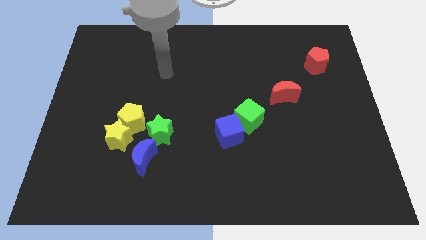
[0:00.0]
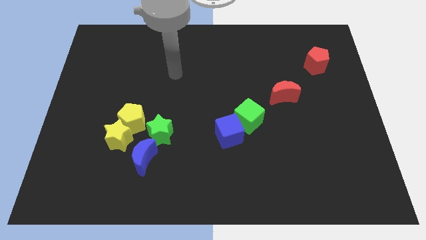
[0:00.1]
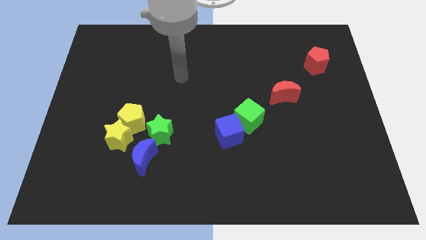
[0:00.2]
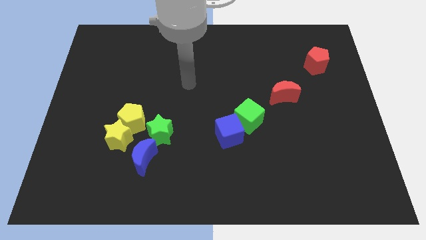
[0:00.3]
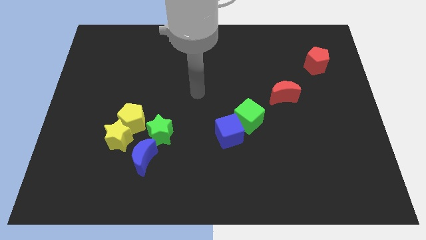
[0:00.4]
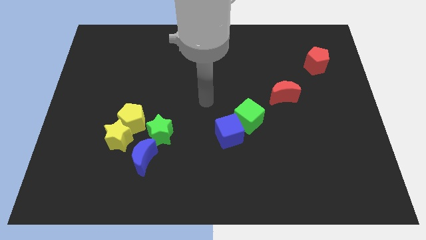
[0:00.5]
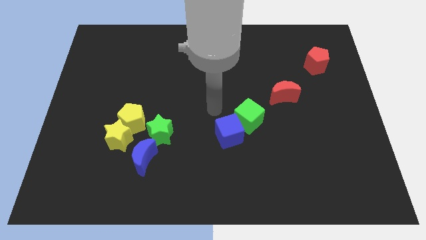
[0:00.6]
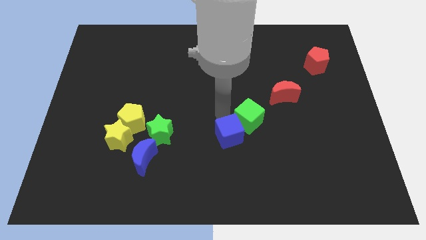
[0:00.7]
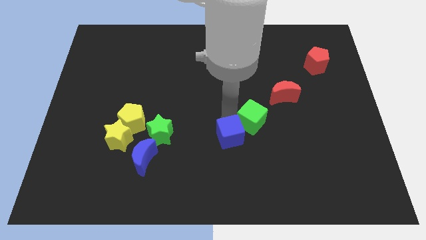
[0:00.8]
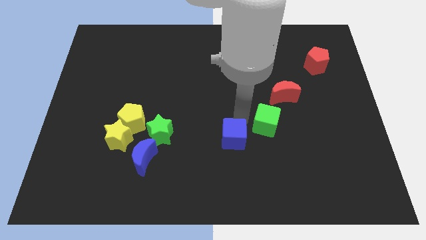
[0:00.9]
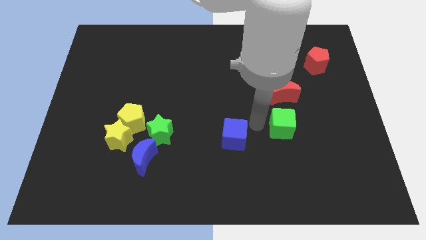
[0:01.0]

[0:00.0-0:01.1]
pull the blue cube apart from the green cube

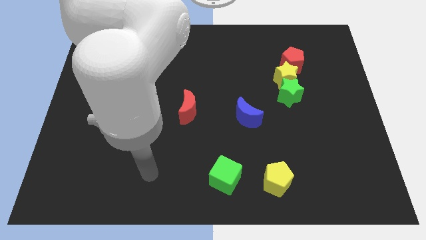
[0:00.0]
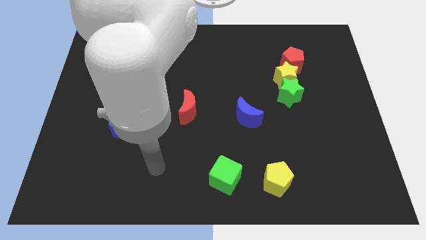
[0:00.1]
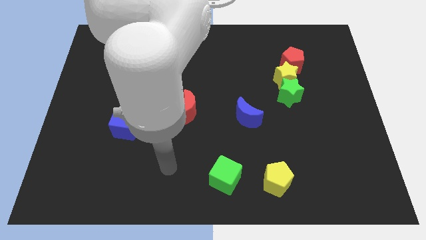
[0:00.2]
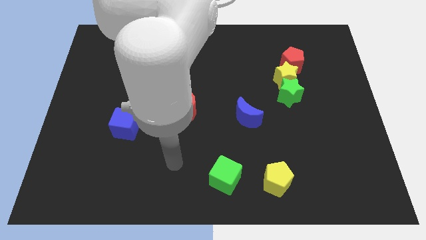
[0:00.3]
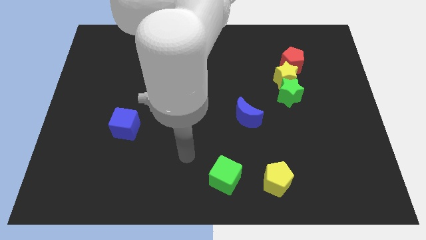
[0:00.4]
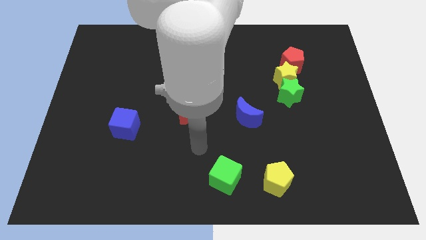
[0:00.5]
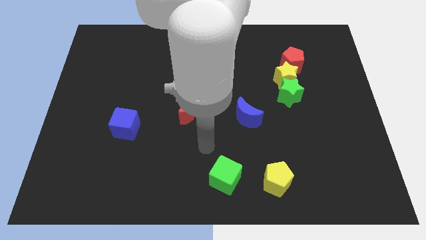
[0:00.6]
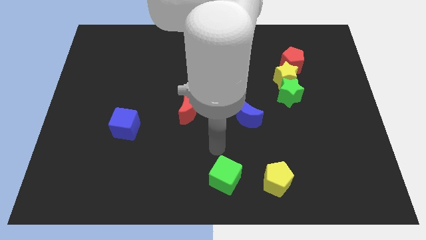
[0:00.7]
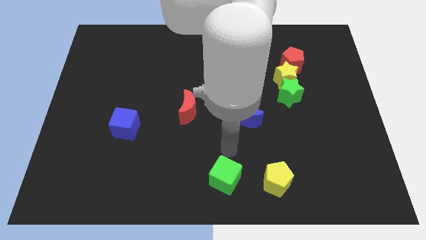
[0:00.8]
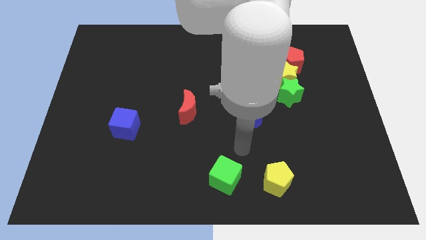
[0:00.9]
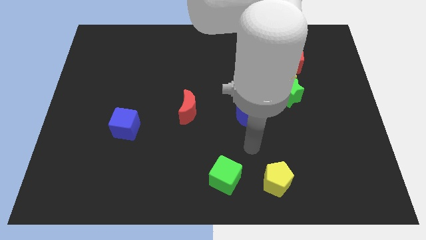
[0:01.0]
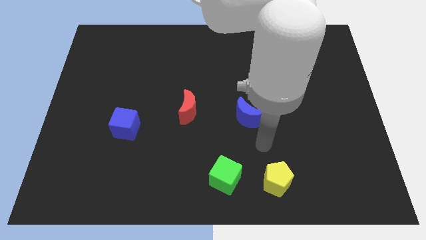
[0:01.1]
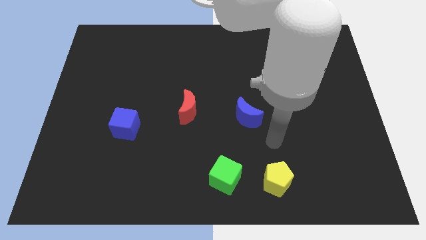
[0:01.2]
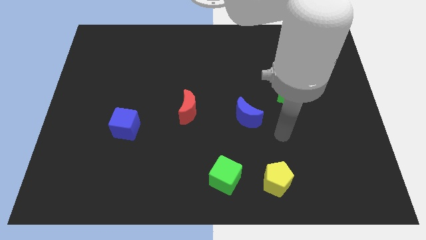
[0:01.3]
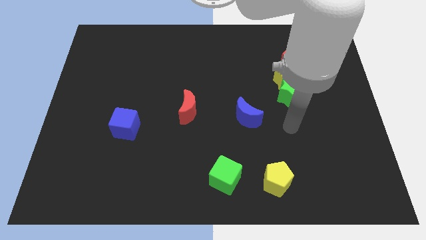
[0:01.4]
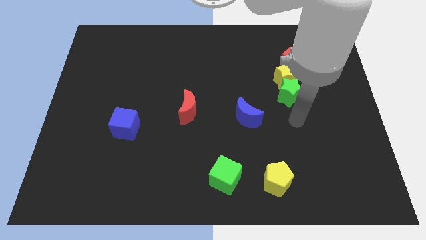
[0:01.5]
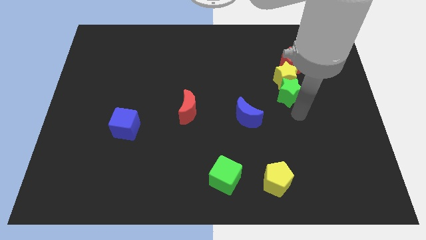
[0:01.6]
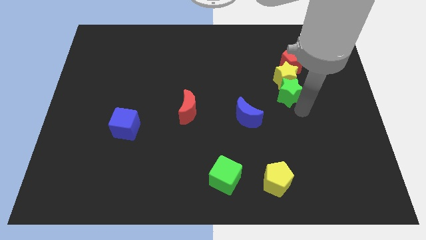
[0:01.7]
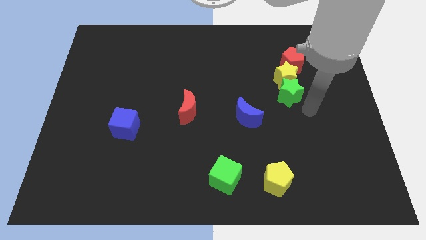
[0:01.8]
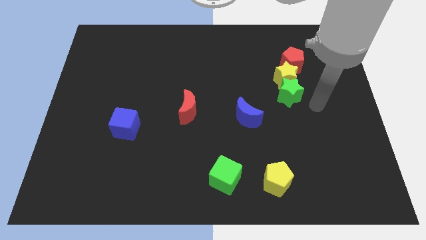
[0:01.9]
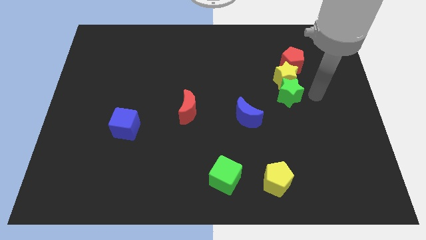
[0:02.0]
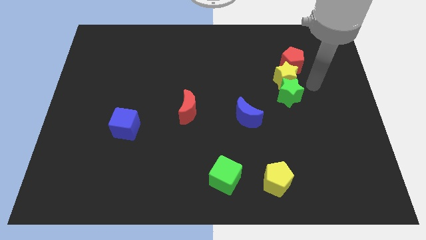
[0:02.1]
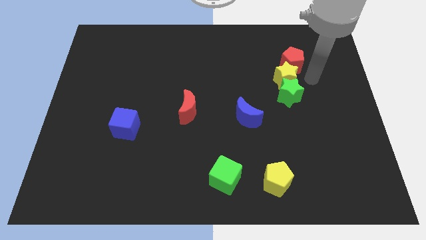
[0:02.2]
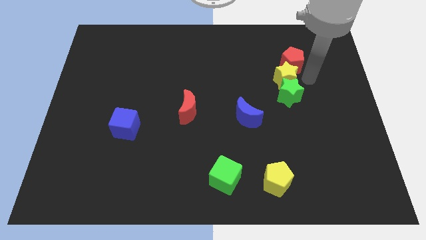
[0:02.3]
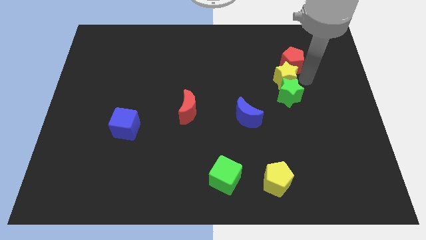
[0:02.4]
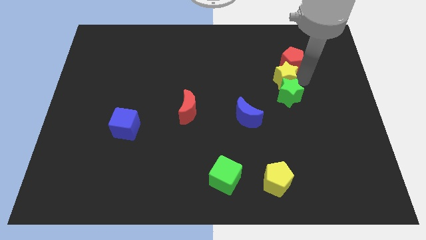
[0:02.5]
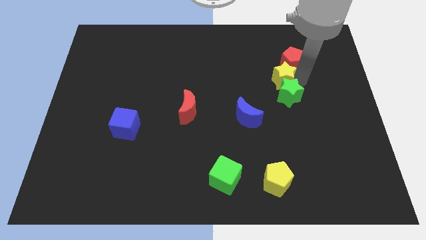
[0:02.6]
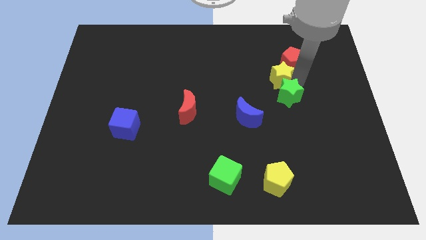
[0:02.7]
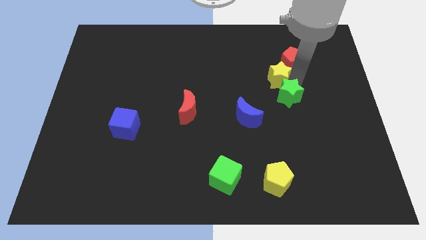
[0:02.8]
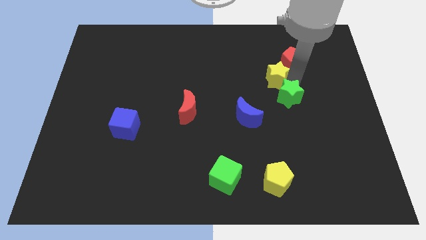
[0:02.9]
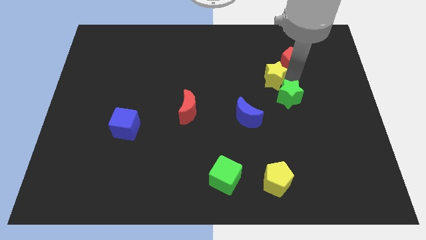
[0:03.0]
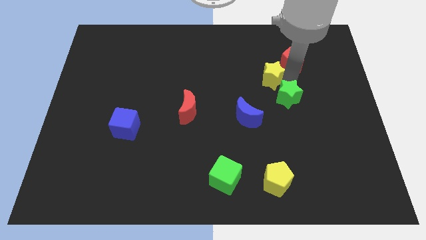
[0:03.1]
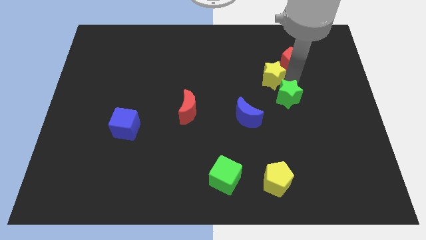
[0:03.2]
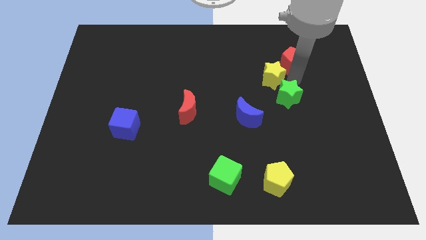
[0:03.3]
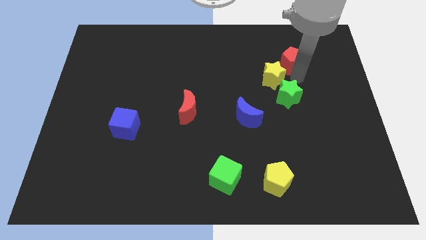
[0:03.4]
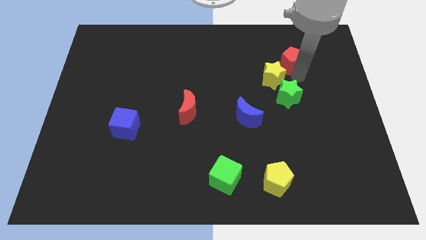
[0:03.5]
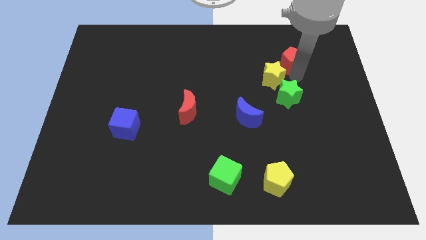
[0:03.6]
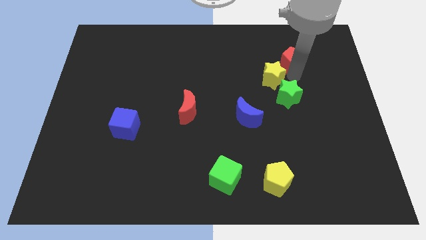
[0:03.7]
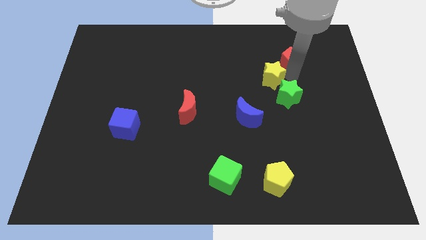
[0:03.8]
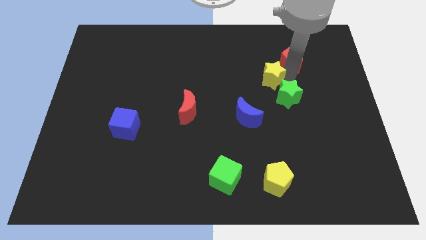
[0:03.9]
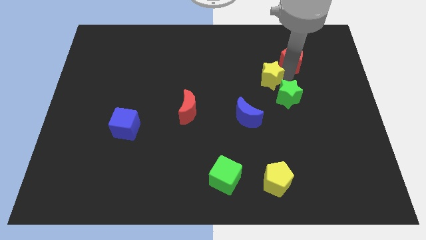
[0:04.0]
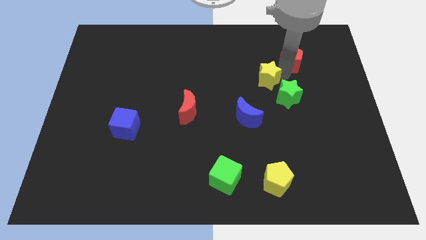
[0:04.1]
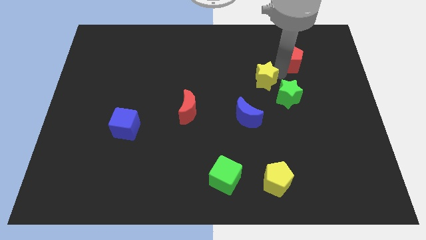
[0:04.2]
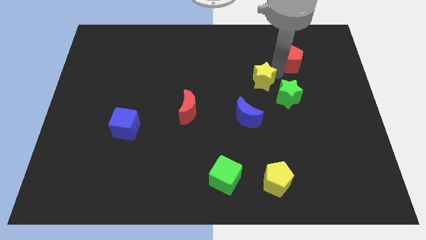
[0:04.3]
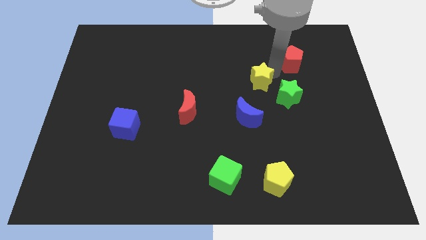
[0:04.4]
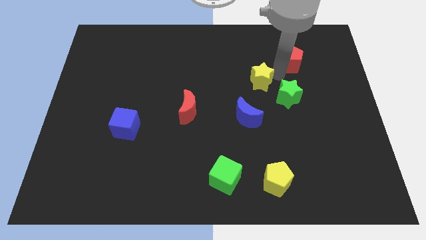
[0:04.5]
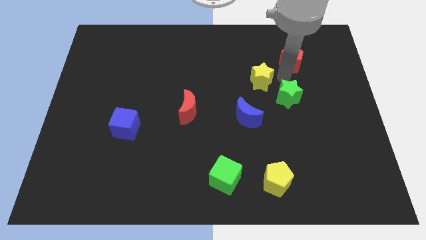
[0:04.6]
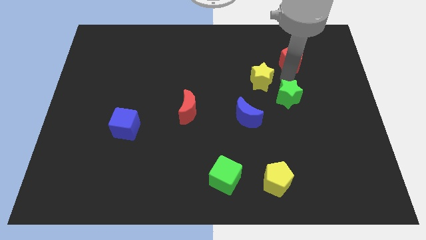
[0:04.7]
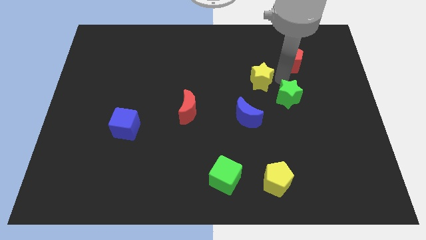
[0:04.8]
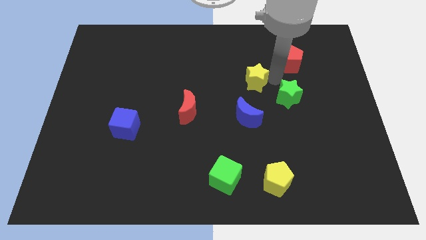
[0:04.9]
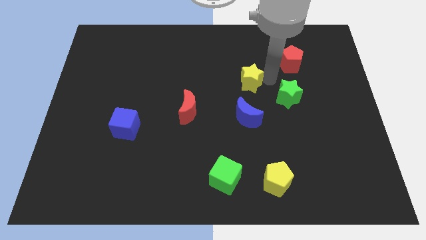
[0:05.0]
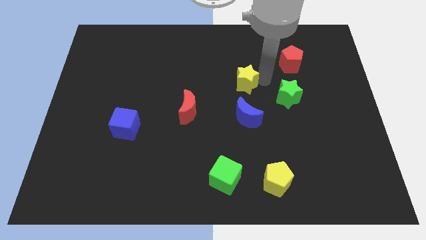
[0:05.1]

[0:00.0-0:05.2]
separate the yellow star from the green star and red pentagon

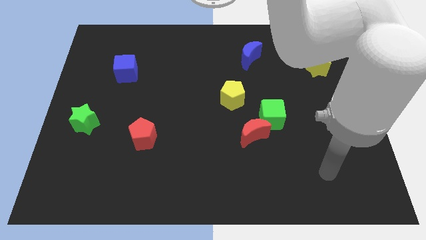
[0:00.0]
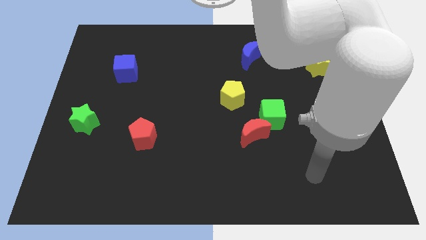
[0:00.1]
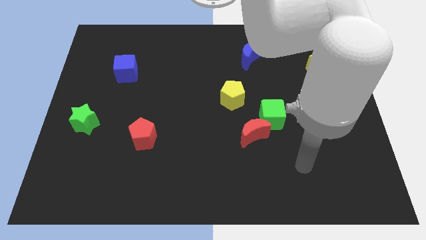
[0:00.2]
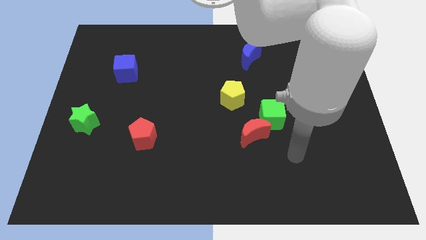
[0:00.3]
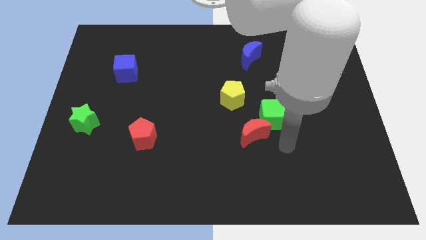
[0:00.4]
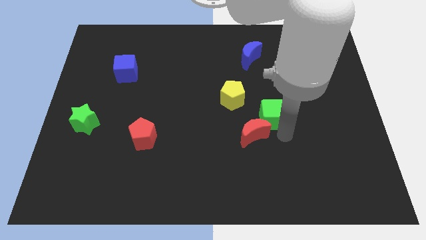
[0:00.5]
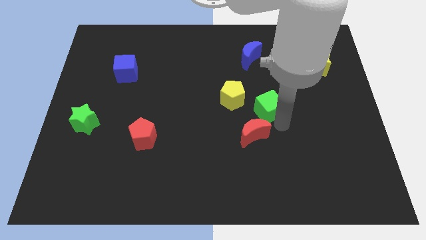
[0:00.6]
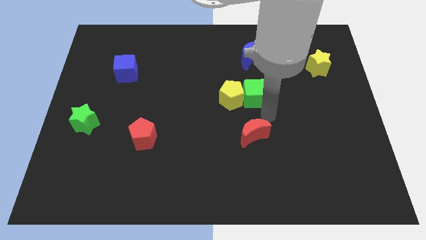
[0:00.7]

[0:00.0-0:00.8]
separate the red moon from the green cube

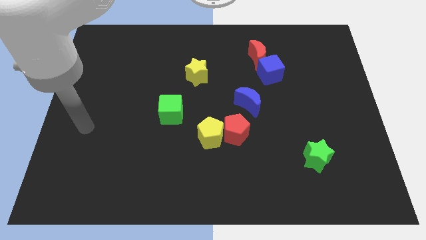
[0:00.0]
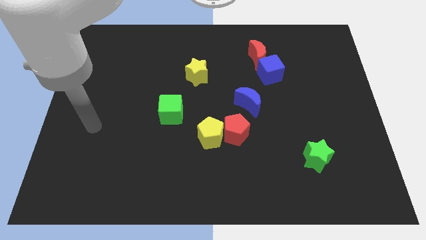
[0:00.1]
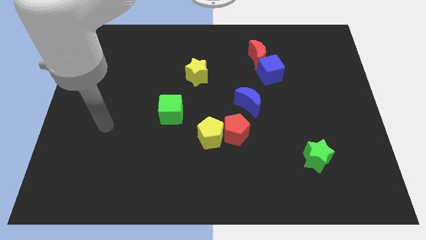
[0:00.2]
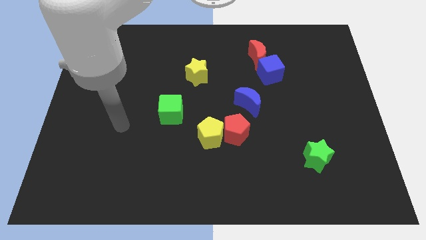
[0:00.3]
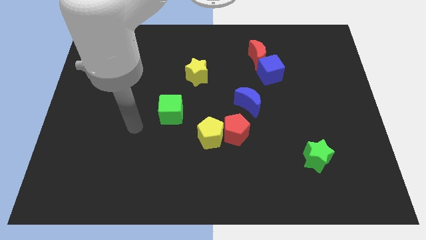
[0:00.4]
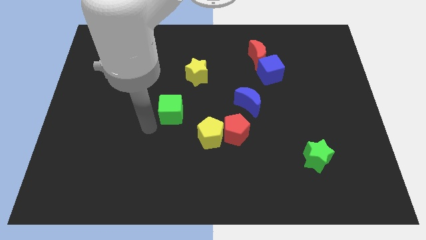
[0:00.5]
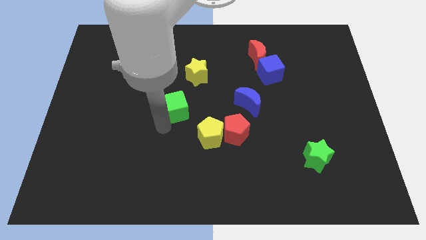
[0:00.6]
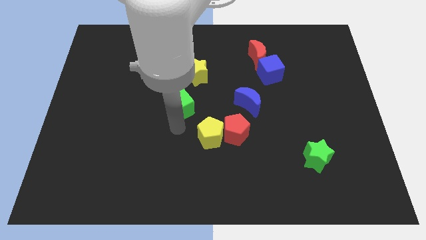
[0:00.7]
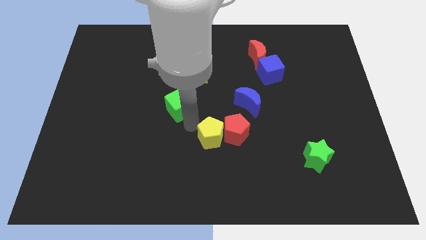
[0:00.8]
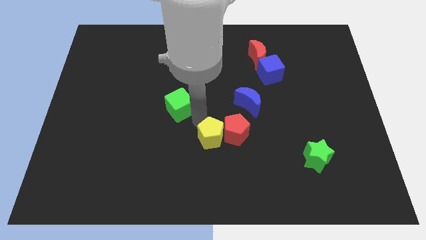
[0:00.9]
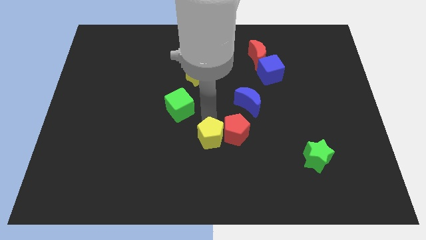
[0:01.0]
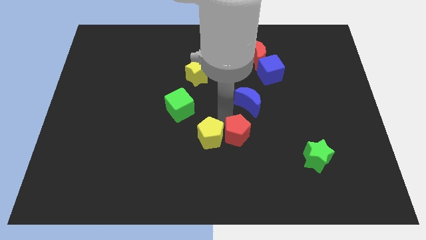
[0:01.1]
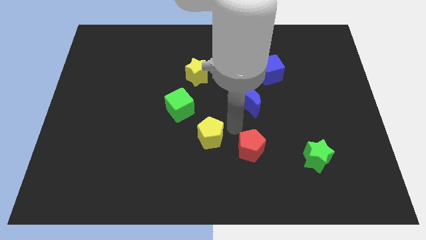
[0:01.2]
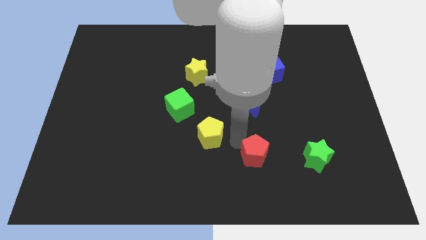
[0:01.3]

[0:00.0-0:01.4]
pull the yellow pentagon apart from the red pentagon

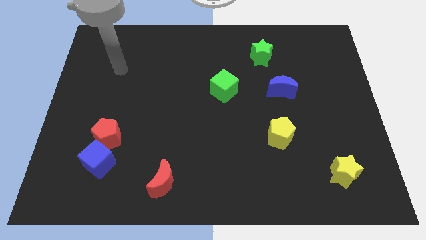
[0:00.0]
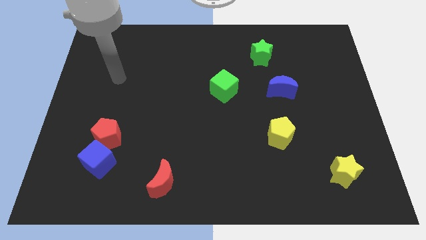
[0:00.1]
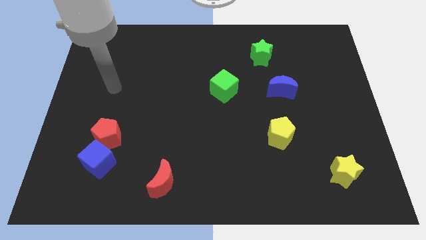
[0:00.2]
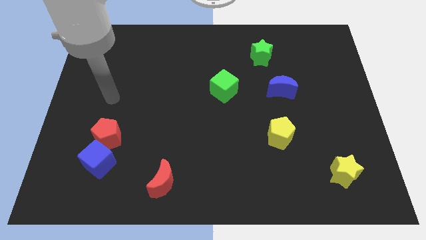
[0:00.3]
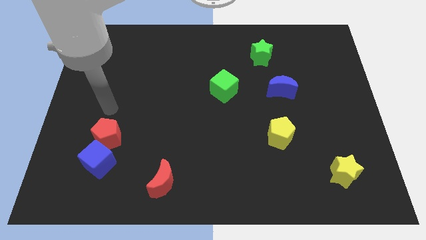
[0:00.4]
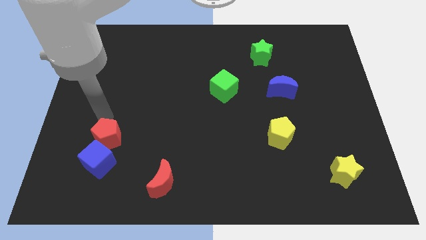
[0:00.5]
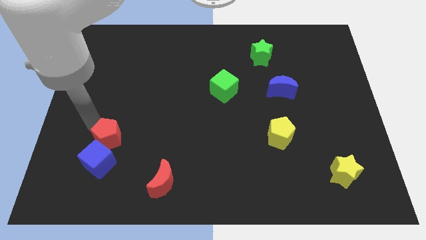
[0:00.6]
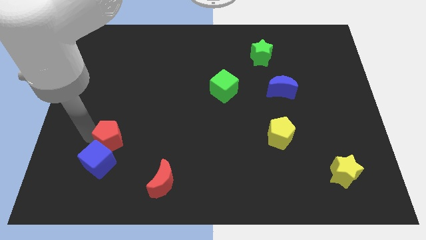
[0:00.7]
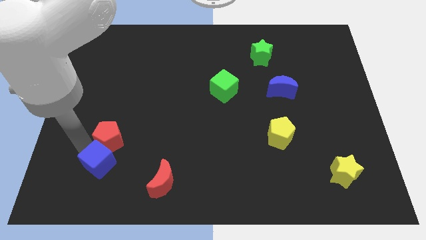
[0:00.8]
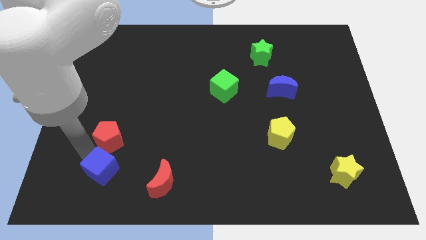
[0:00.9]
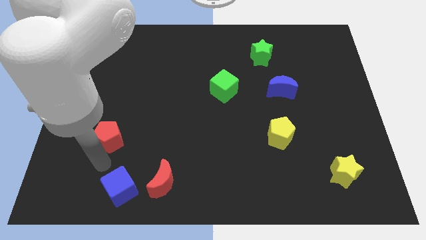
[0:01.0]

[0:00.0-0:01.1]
move the red pentagon away from the blue cube
